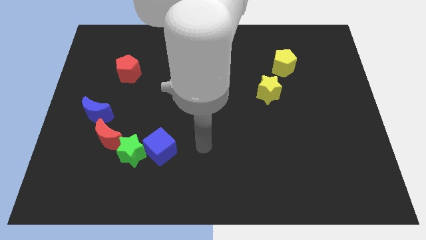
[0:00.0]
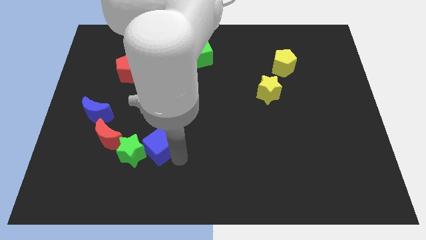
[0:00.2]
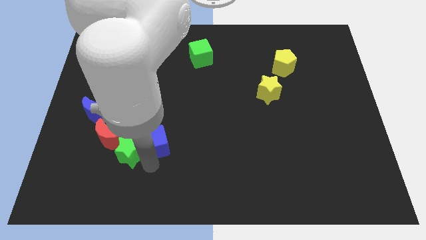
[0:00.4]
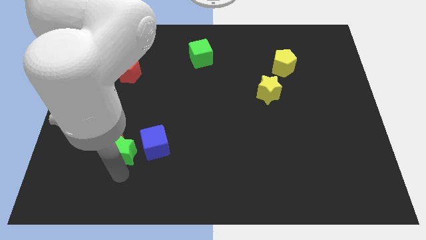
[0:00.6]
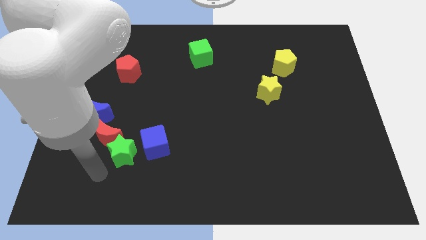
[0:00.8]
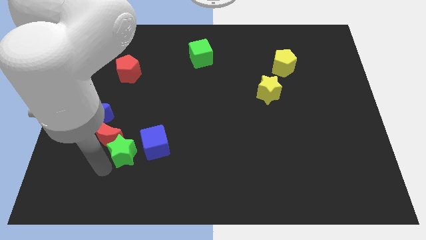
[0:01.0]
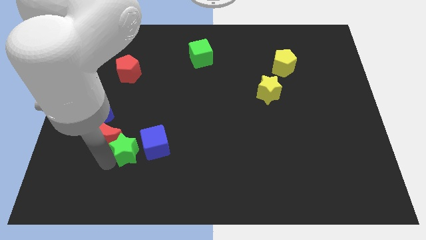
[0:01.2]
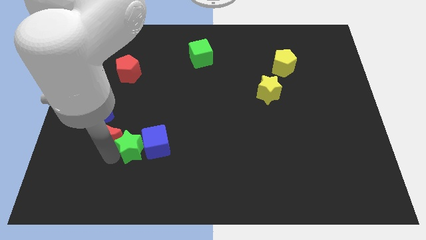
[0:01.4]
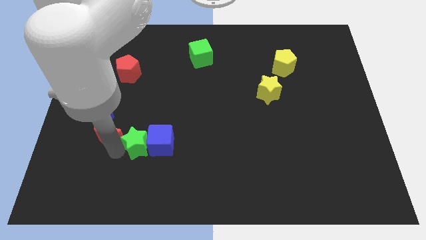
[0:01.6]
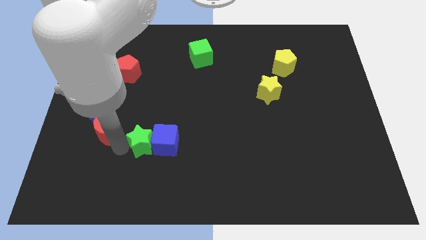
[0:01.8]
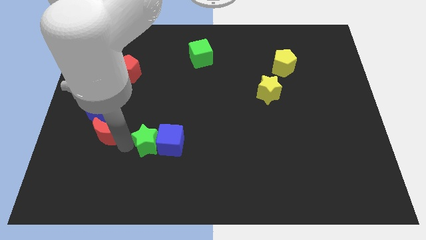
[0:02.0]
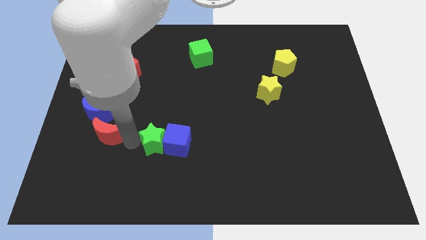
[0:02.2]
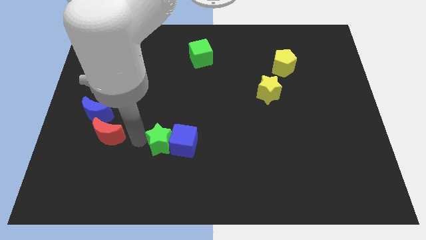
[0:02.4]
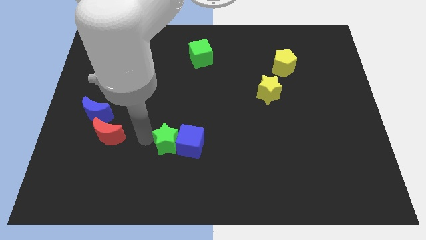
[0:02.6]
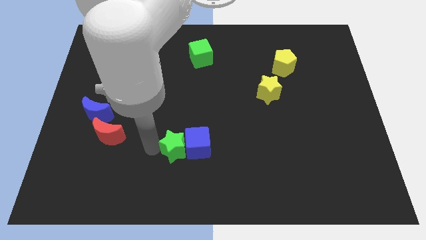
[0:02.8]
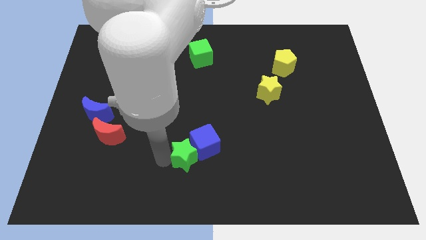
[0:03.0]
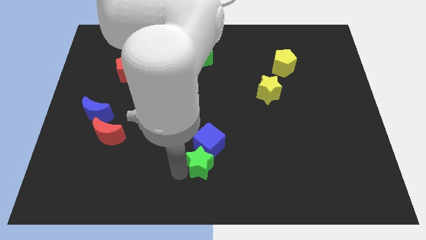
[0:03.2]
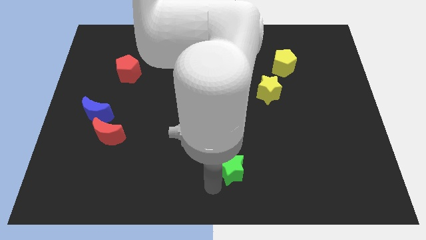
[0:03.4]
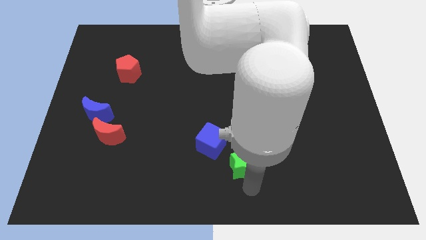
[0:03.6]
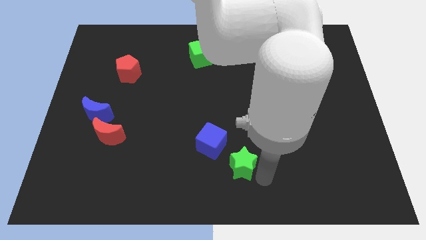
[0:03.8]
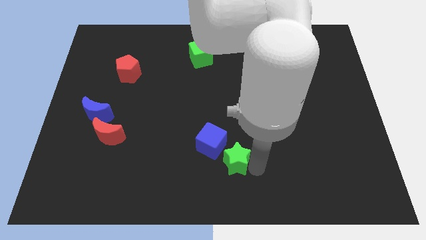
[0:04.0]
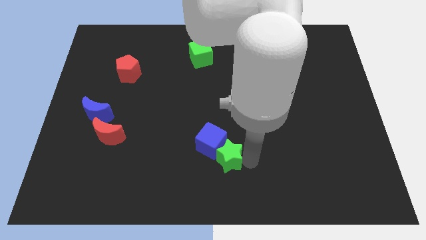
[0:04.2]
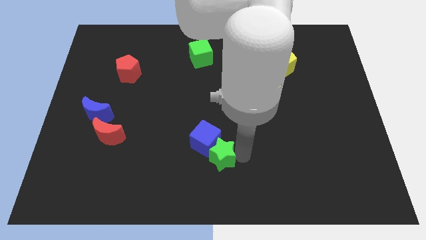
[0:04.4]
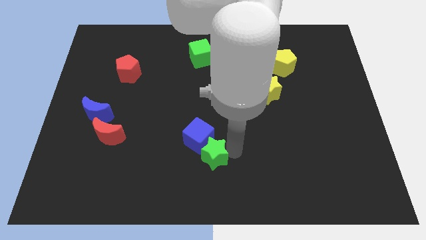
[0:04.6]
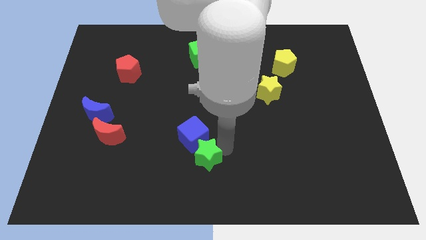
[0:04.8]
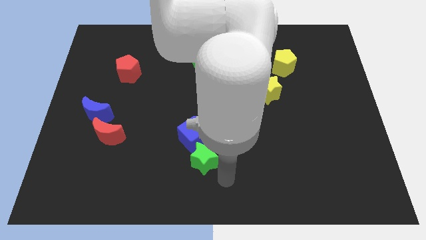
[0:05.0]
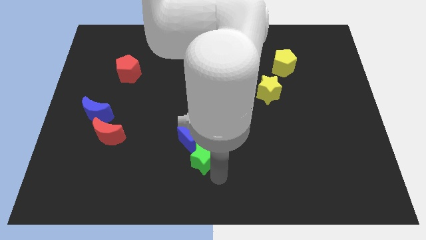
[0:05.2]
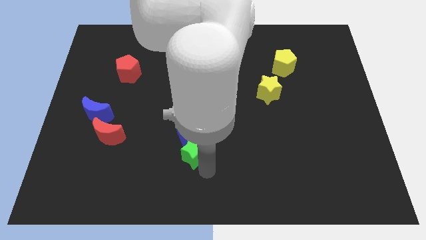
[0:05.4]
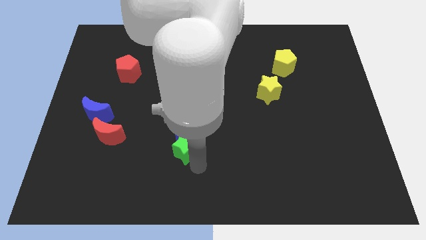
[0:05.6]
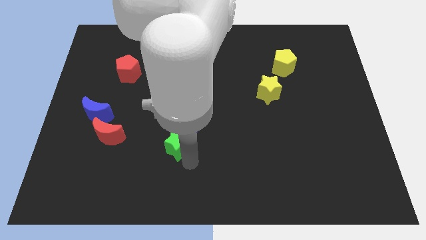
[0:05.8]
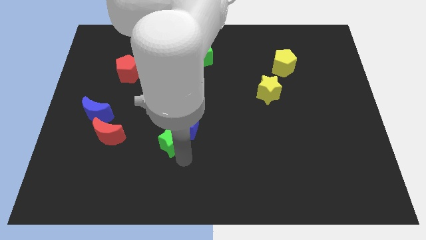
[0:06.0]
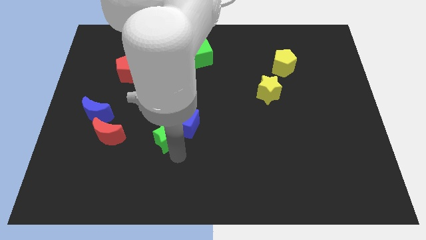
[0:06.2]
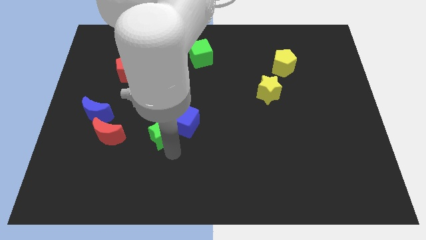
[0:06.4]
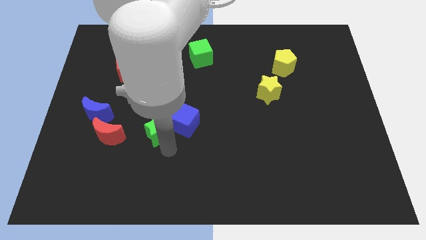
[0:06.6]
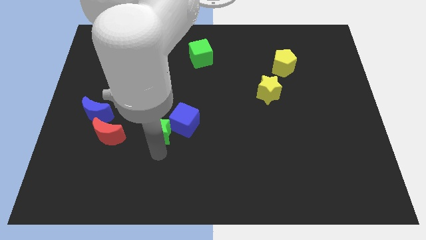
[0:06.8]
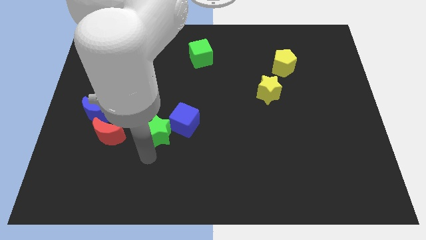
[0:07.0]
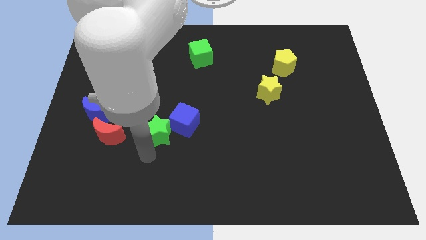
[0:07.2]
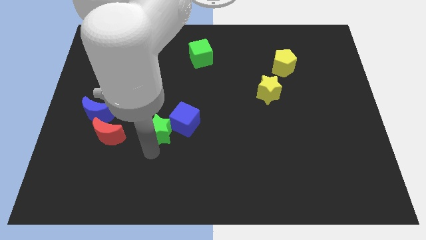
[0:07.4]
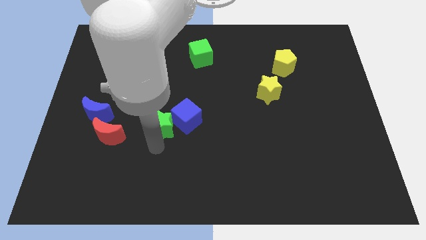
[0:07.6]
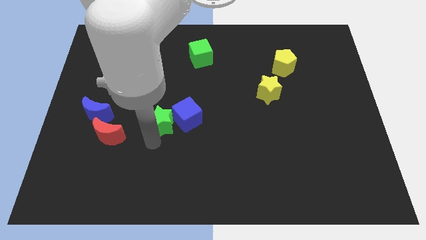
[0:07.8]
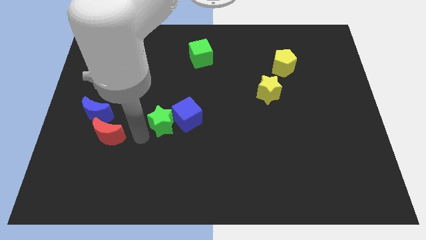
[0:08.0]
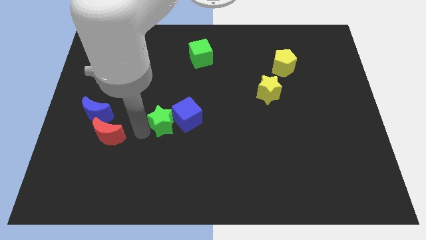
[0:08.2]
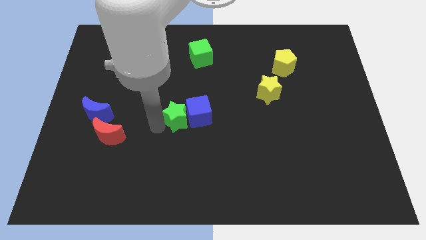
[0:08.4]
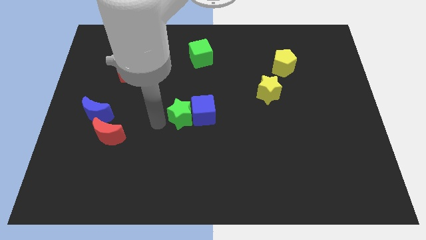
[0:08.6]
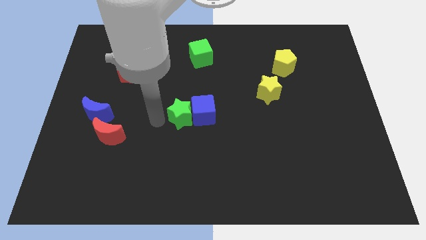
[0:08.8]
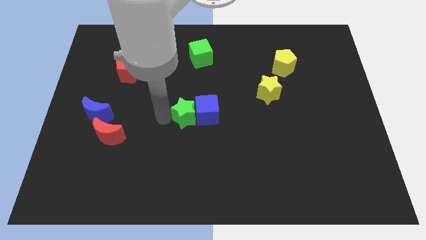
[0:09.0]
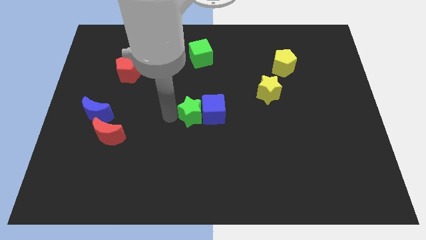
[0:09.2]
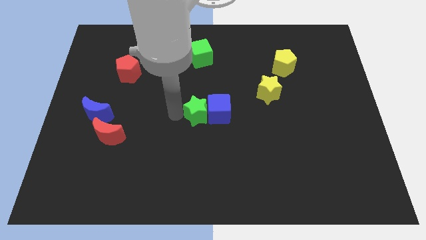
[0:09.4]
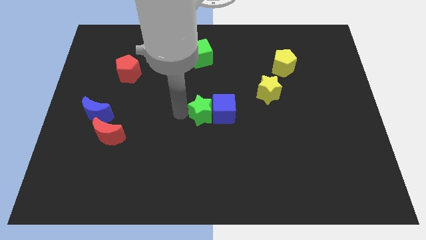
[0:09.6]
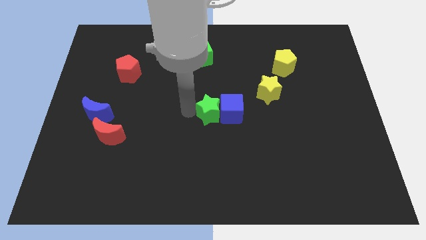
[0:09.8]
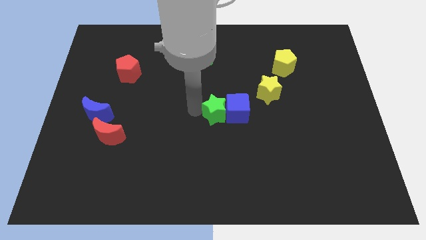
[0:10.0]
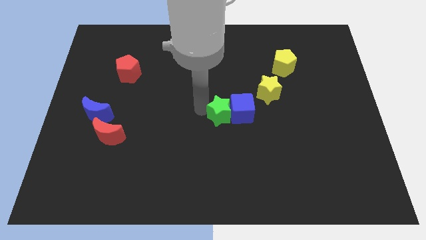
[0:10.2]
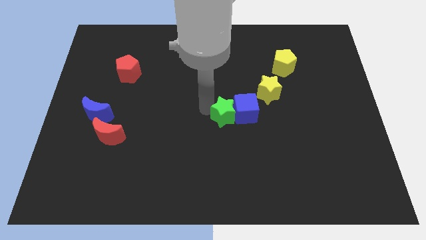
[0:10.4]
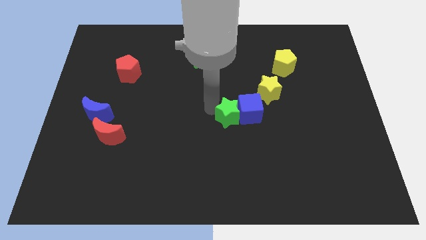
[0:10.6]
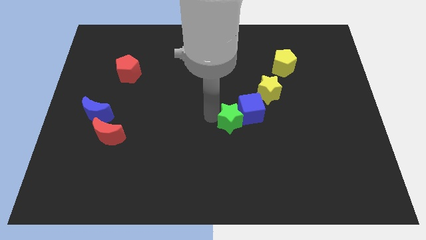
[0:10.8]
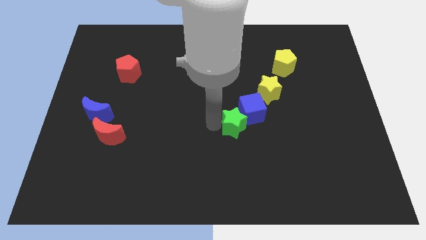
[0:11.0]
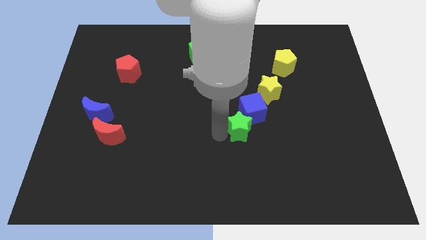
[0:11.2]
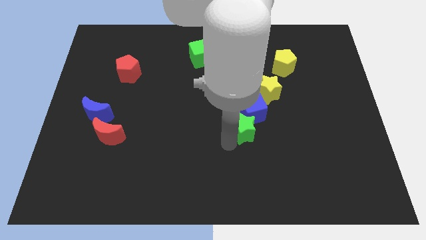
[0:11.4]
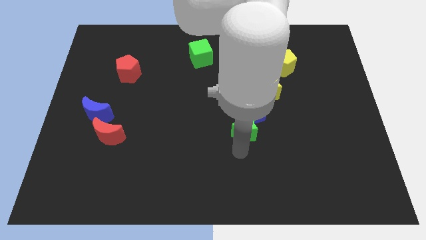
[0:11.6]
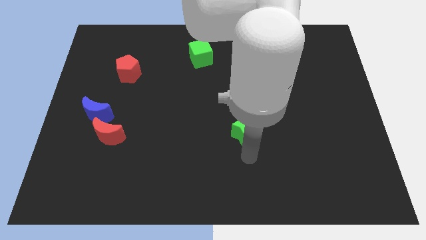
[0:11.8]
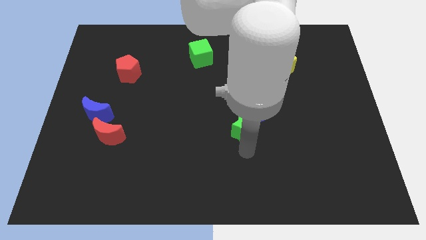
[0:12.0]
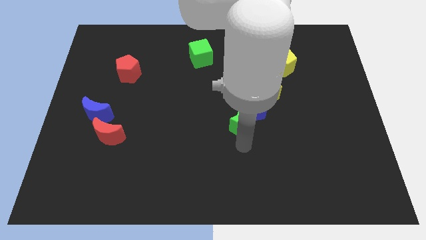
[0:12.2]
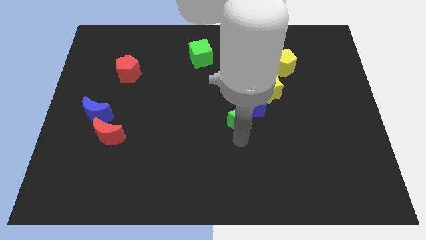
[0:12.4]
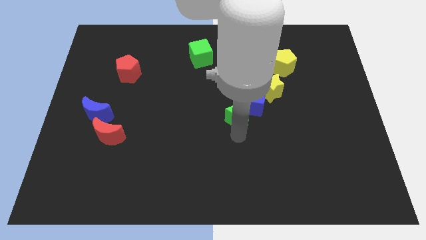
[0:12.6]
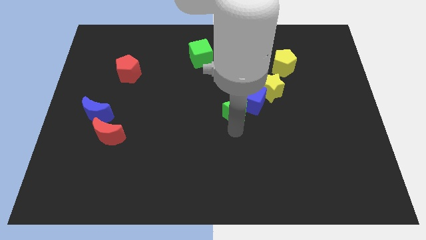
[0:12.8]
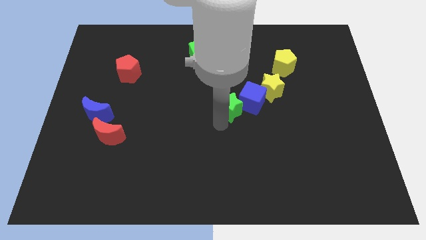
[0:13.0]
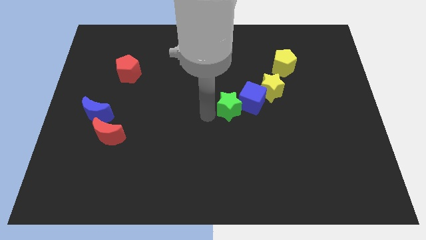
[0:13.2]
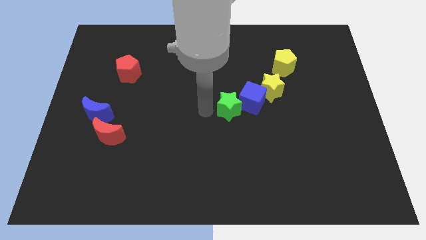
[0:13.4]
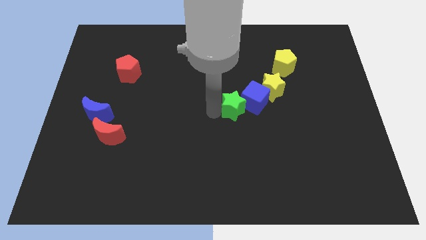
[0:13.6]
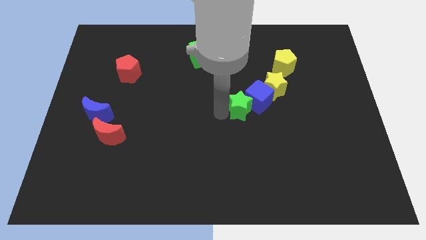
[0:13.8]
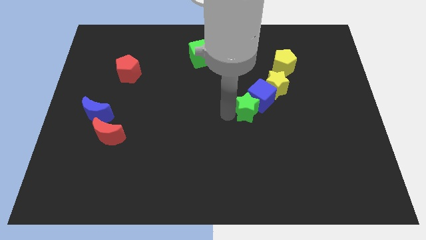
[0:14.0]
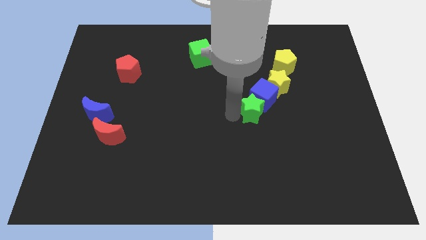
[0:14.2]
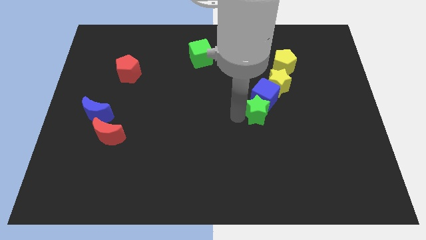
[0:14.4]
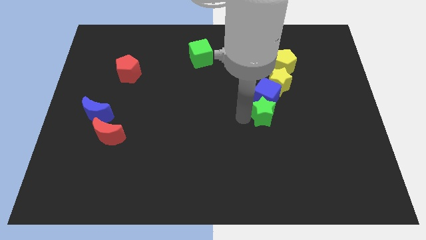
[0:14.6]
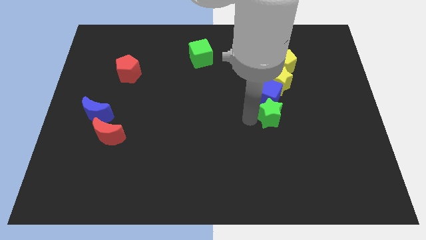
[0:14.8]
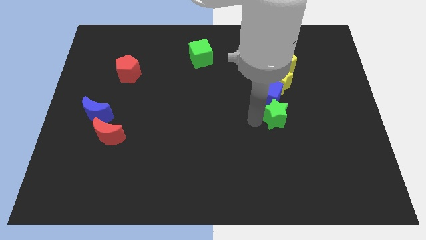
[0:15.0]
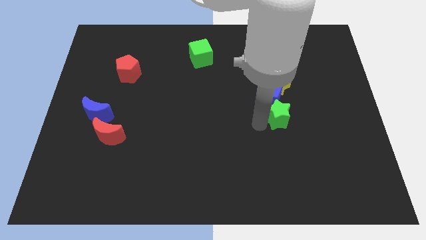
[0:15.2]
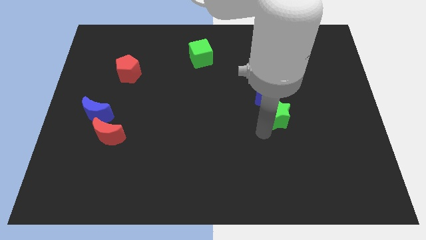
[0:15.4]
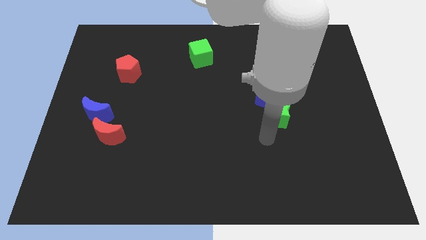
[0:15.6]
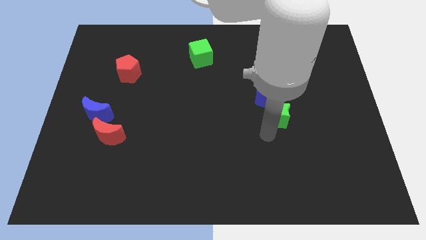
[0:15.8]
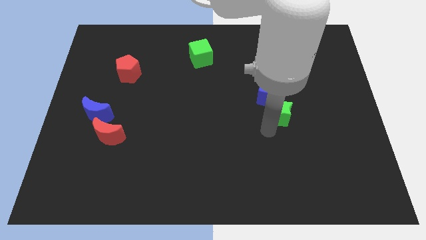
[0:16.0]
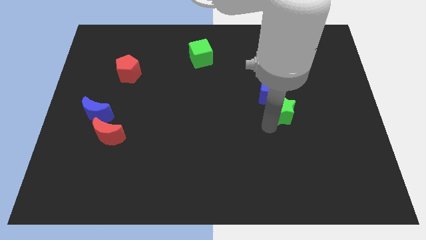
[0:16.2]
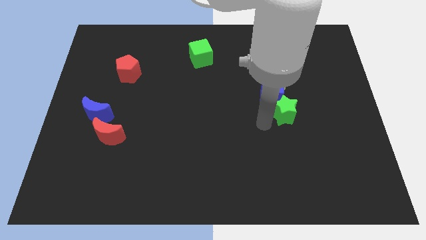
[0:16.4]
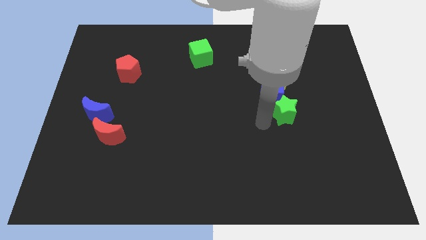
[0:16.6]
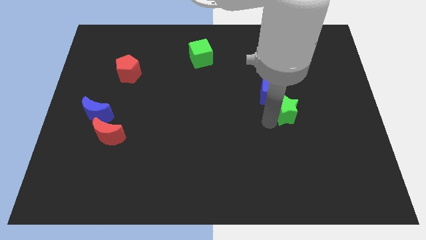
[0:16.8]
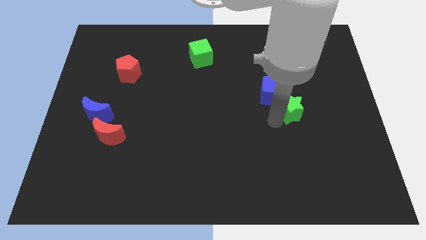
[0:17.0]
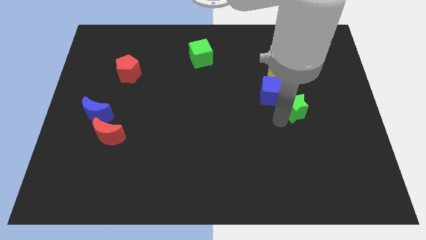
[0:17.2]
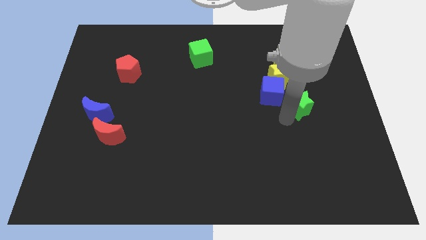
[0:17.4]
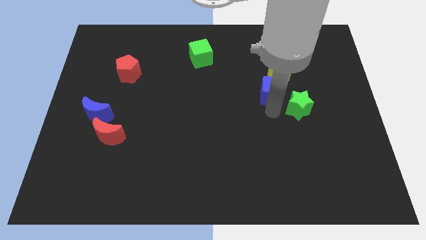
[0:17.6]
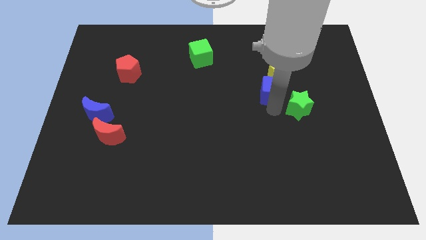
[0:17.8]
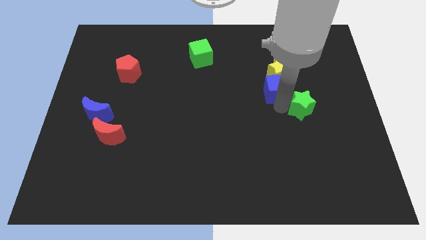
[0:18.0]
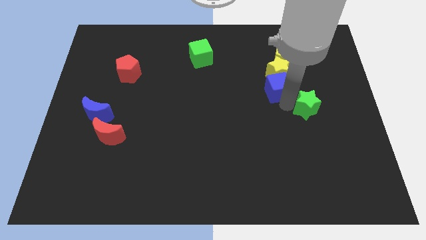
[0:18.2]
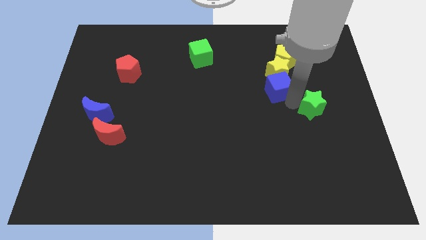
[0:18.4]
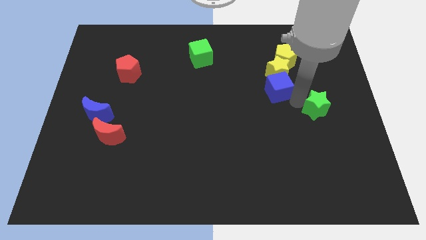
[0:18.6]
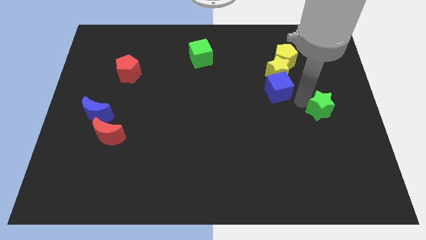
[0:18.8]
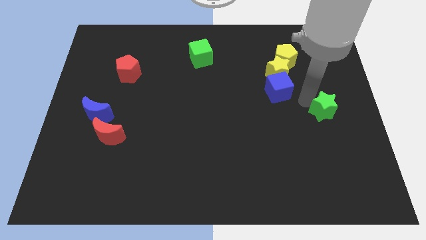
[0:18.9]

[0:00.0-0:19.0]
slide the green star to the center right
